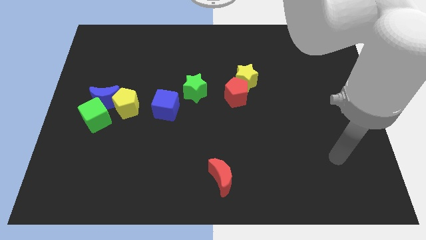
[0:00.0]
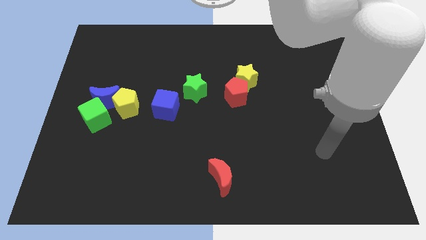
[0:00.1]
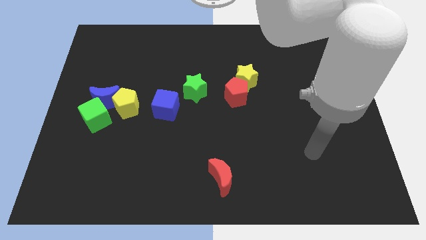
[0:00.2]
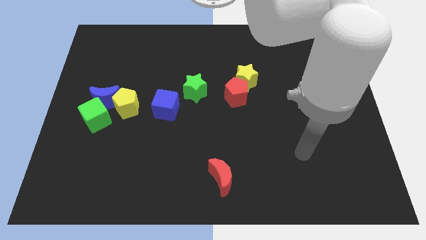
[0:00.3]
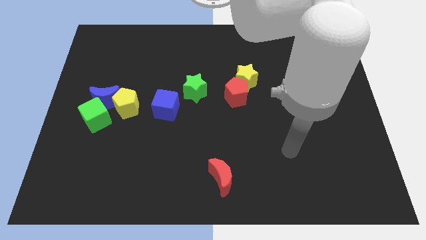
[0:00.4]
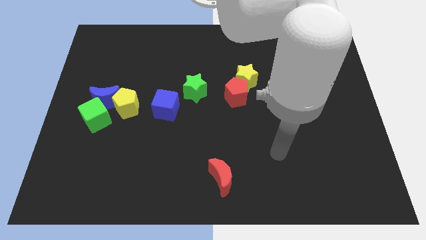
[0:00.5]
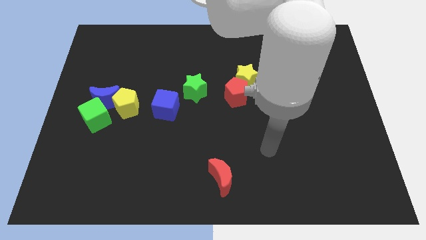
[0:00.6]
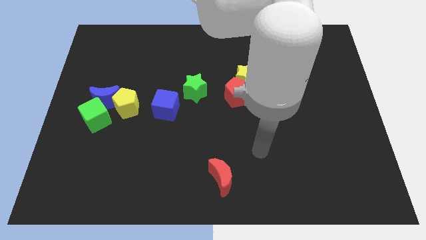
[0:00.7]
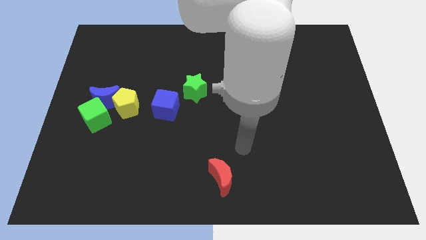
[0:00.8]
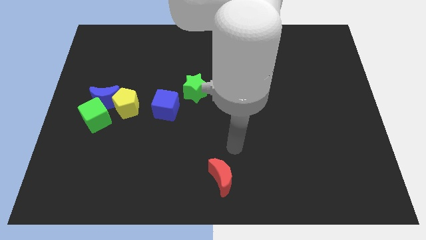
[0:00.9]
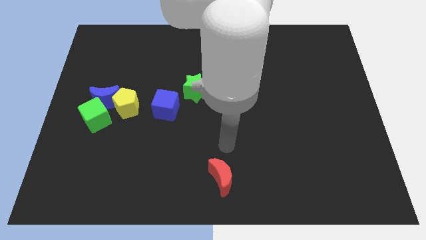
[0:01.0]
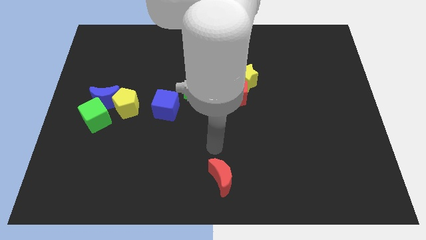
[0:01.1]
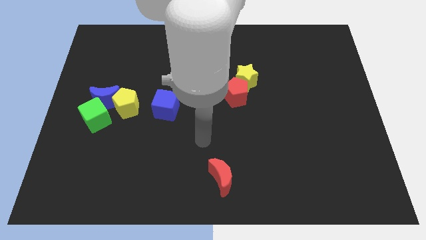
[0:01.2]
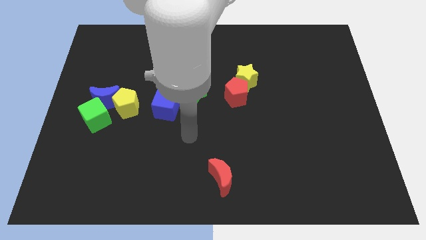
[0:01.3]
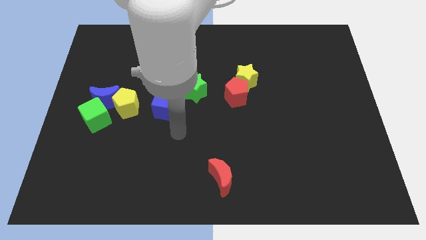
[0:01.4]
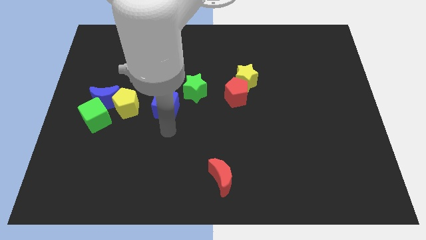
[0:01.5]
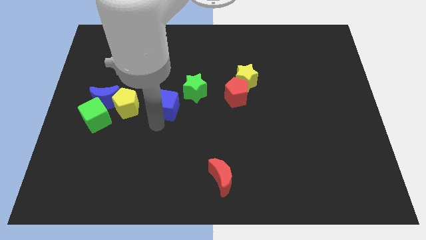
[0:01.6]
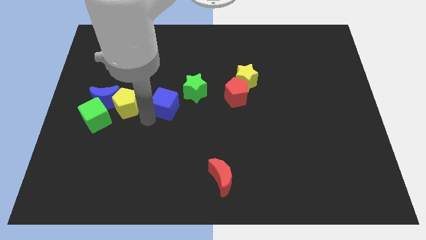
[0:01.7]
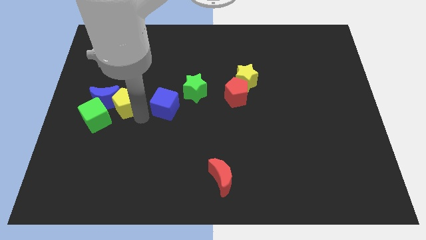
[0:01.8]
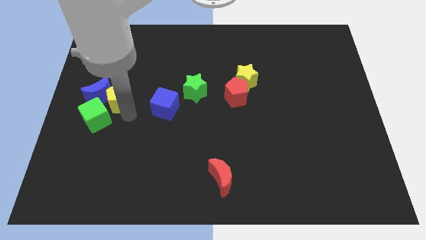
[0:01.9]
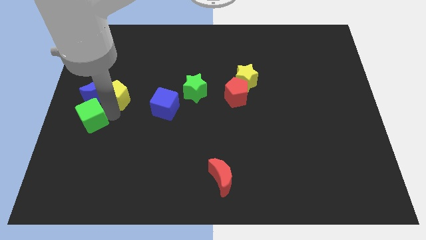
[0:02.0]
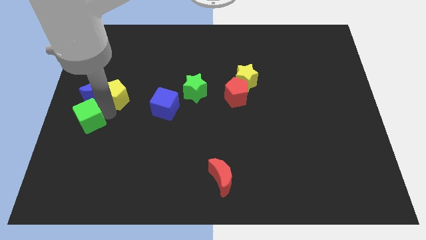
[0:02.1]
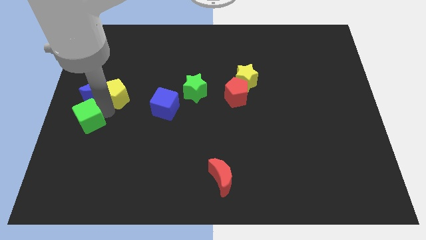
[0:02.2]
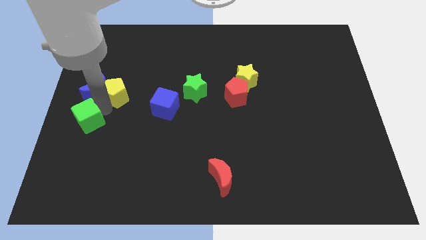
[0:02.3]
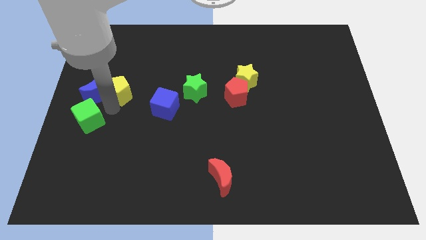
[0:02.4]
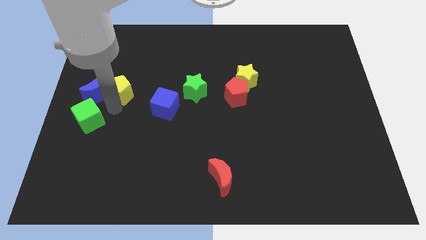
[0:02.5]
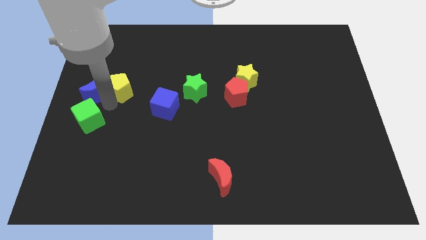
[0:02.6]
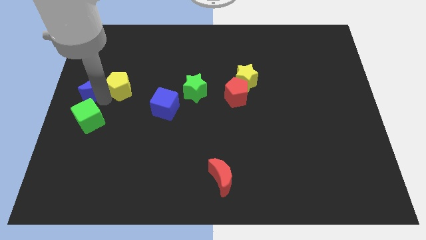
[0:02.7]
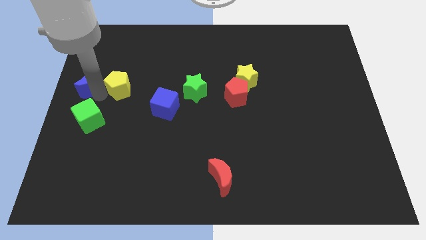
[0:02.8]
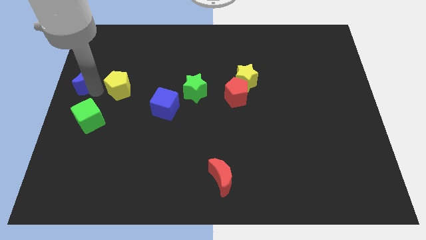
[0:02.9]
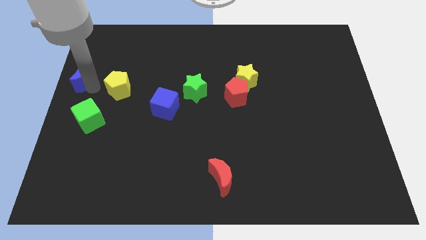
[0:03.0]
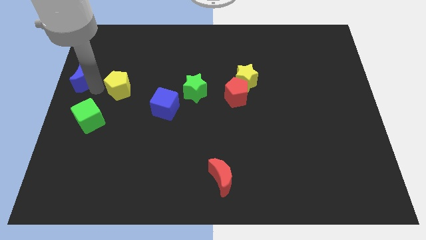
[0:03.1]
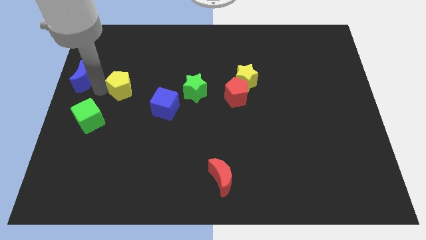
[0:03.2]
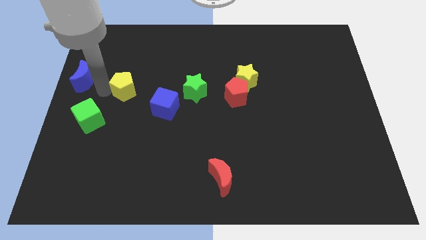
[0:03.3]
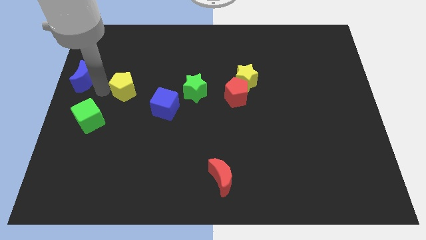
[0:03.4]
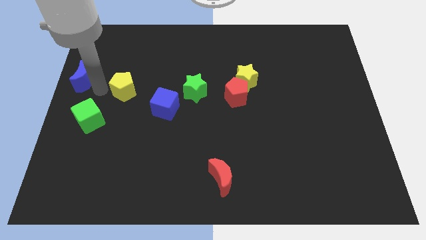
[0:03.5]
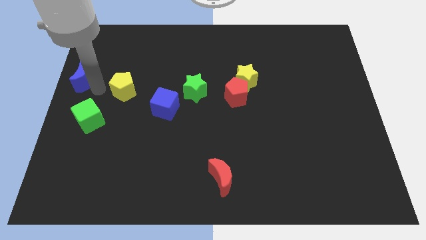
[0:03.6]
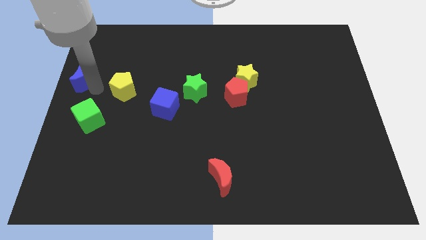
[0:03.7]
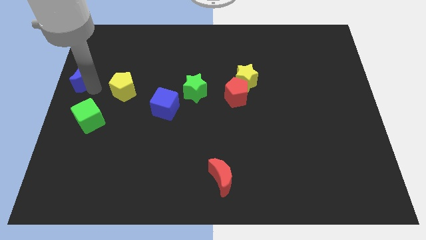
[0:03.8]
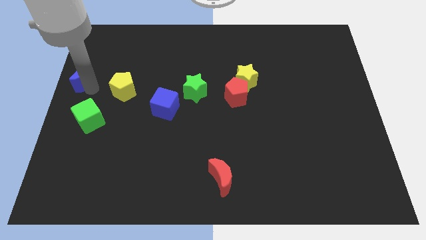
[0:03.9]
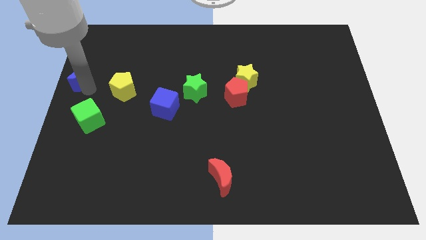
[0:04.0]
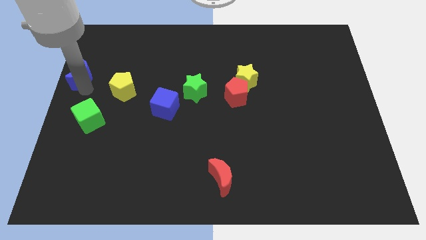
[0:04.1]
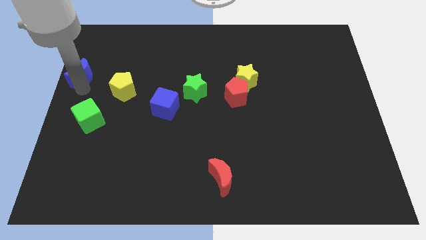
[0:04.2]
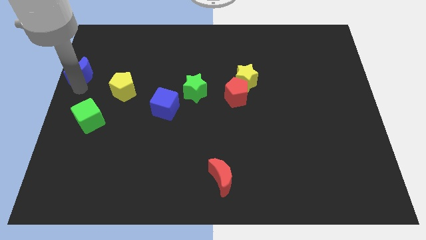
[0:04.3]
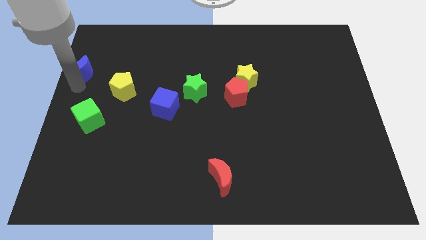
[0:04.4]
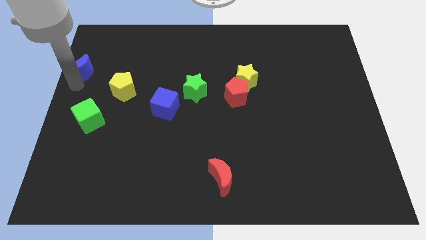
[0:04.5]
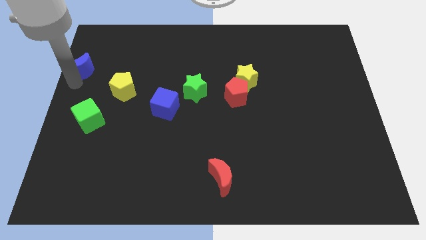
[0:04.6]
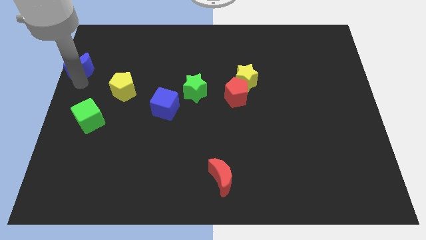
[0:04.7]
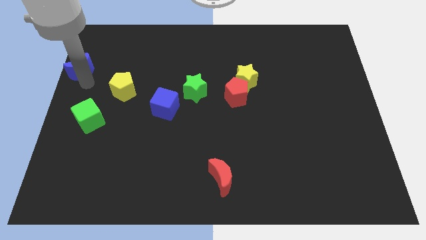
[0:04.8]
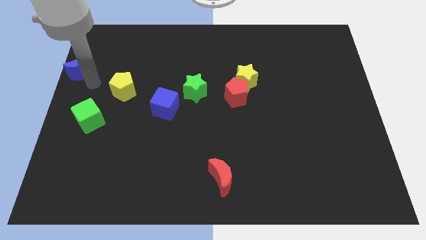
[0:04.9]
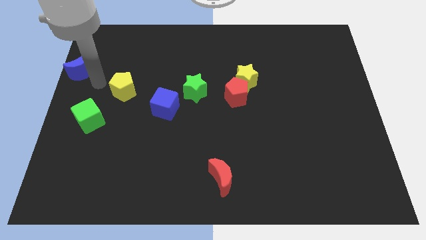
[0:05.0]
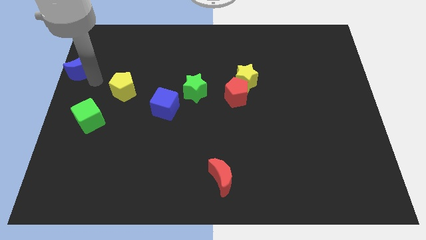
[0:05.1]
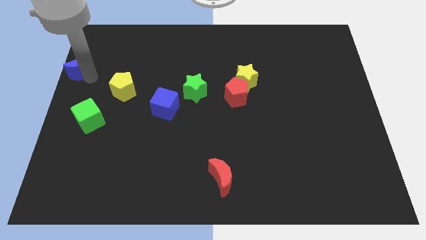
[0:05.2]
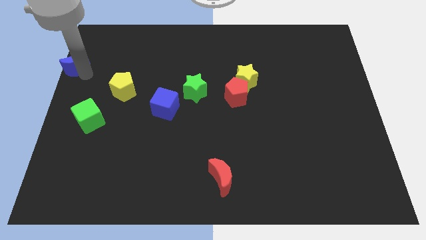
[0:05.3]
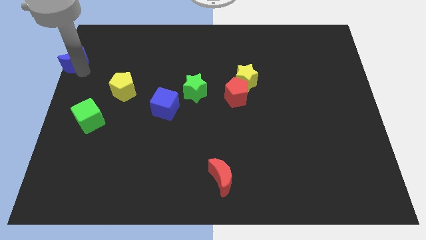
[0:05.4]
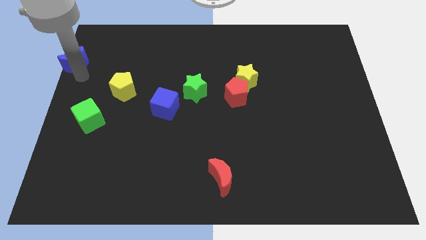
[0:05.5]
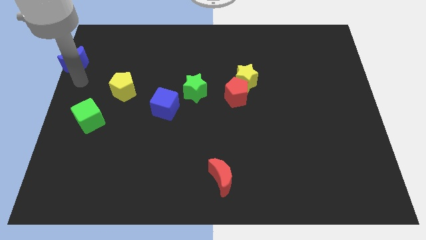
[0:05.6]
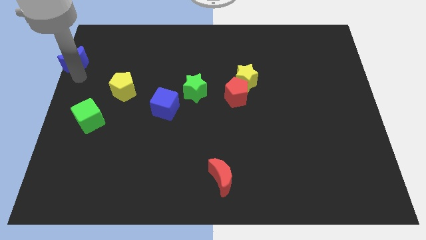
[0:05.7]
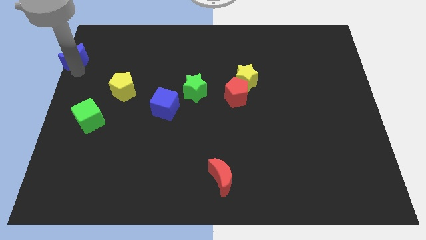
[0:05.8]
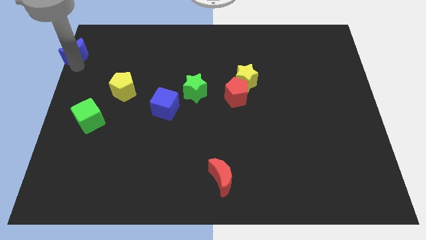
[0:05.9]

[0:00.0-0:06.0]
move the blue moon to the top left
